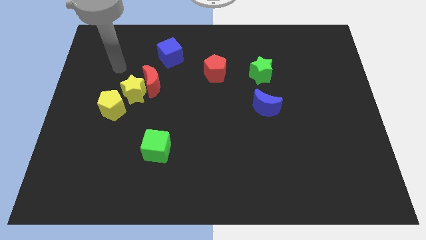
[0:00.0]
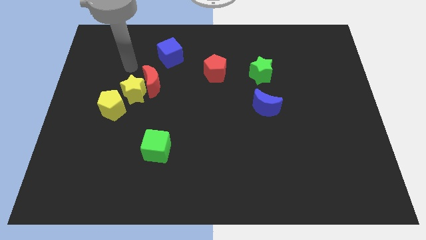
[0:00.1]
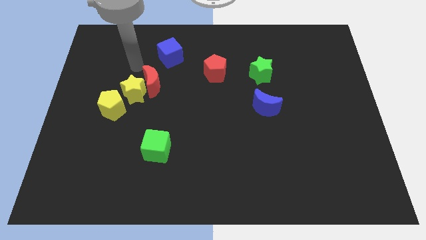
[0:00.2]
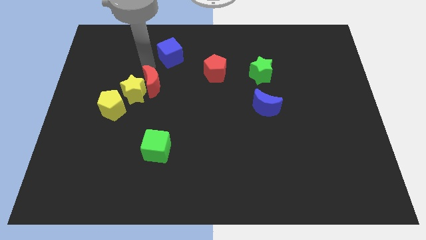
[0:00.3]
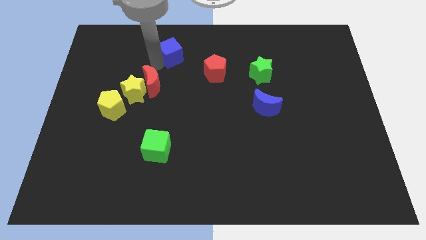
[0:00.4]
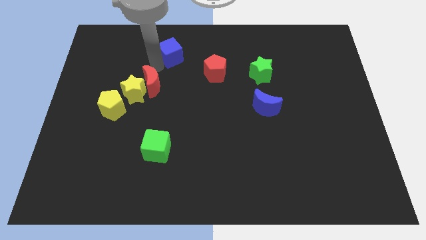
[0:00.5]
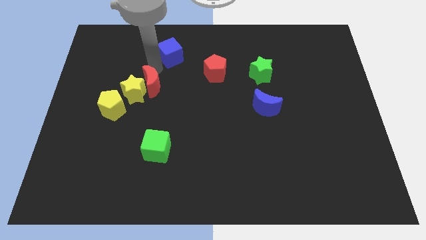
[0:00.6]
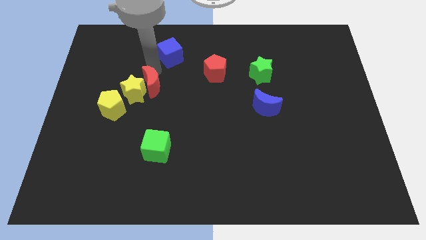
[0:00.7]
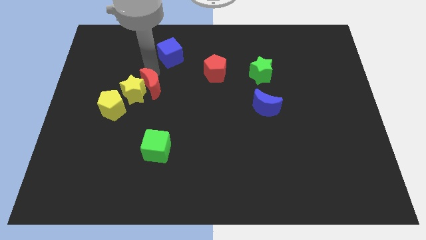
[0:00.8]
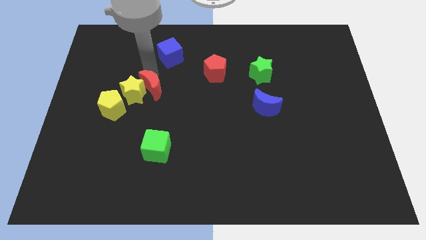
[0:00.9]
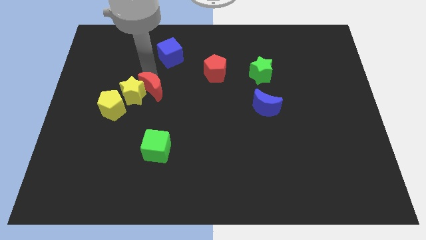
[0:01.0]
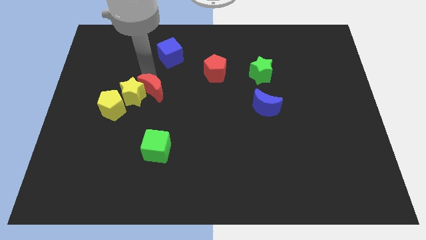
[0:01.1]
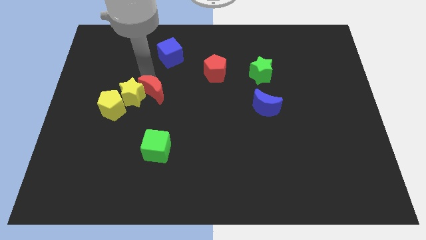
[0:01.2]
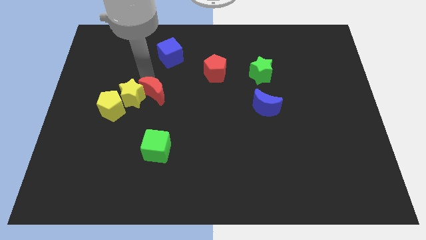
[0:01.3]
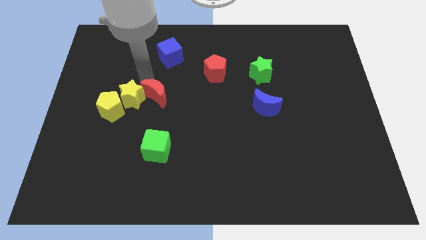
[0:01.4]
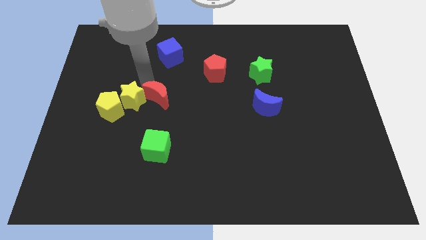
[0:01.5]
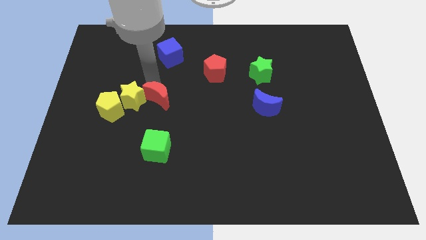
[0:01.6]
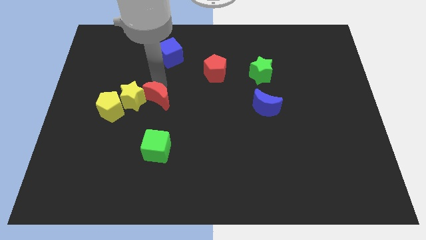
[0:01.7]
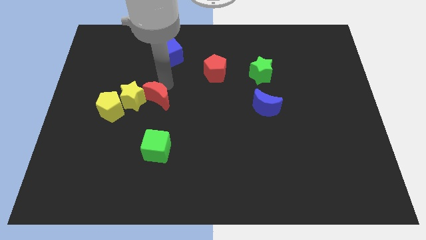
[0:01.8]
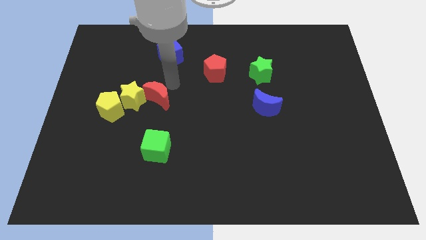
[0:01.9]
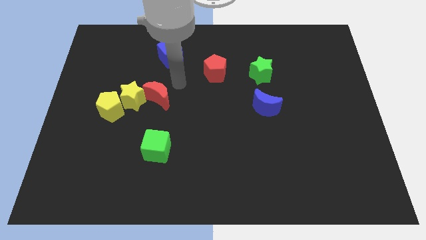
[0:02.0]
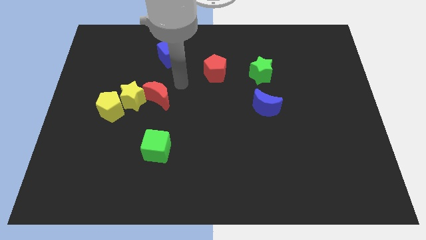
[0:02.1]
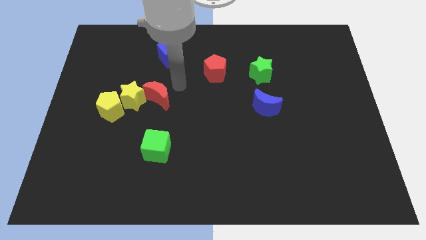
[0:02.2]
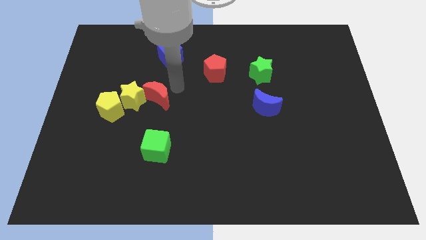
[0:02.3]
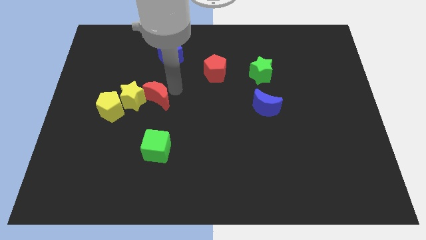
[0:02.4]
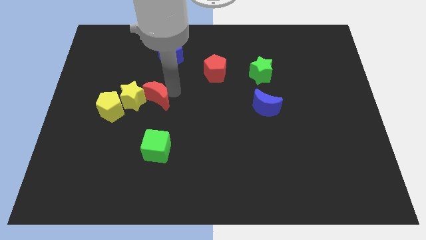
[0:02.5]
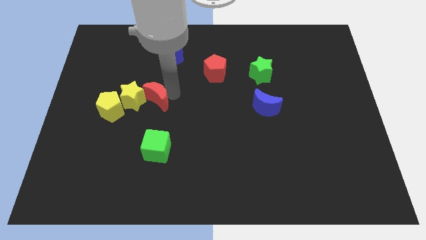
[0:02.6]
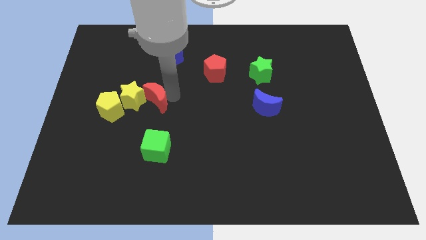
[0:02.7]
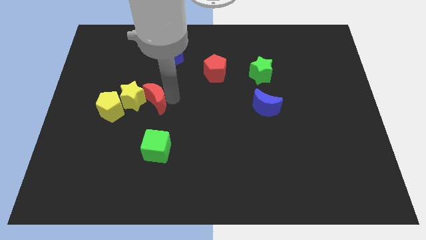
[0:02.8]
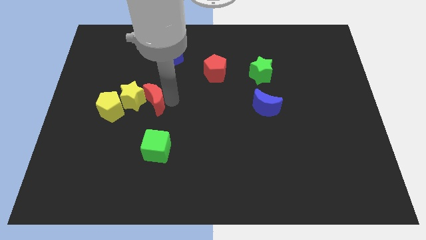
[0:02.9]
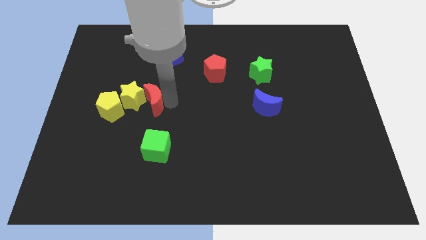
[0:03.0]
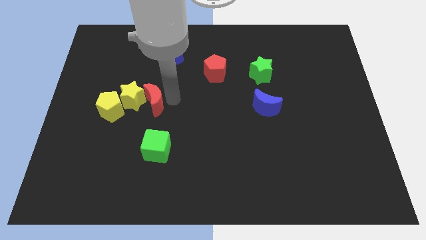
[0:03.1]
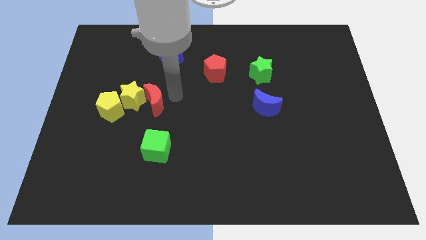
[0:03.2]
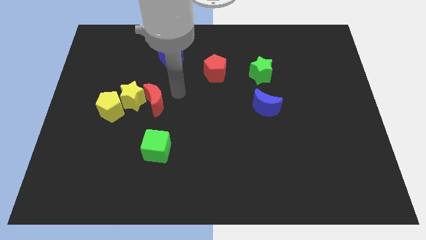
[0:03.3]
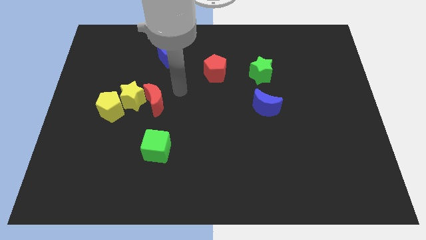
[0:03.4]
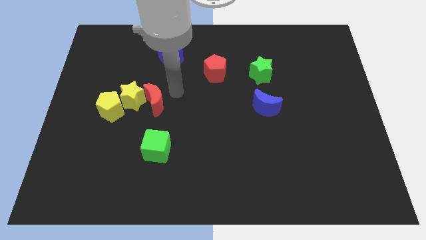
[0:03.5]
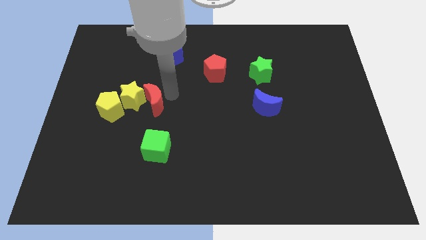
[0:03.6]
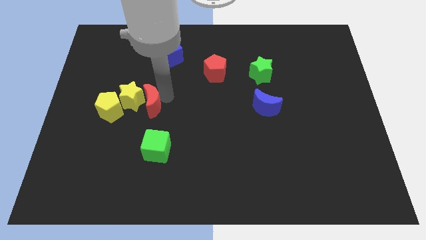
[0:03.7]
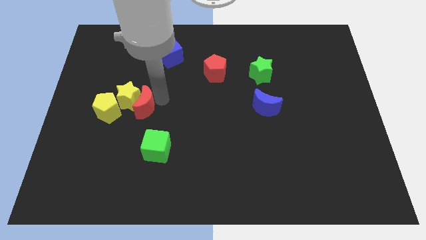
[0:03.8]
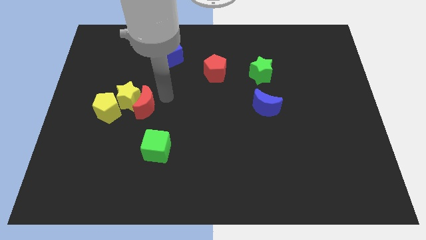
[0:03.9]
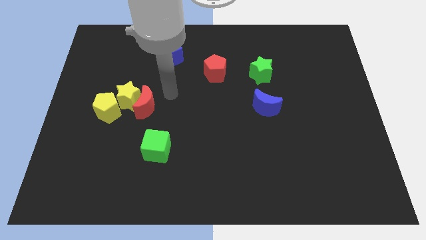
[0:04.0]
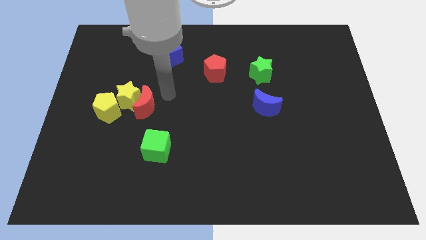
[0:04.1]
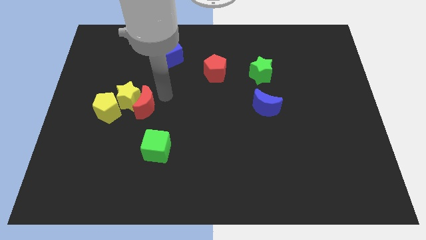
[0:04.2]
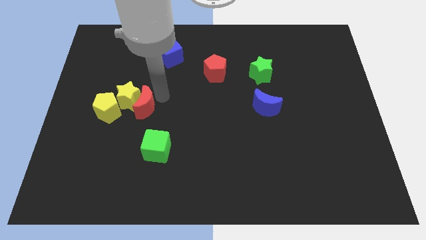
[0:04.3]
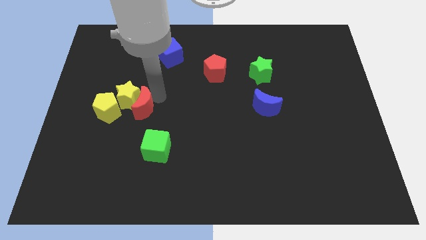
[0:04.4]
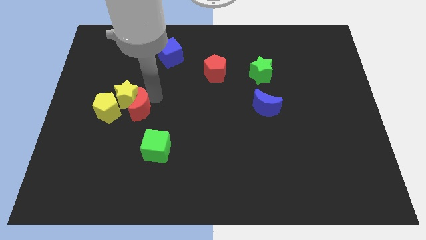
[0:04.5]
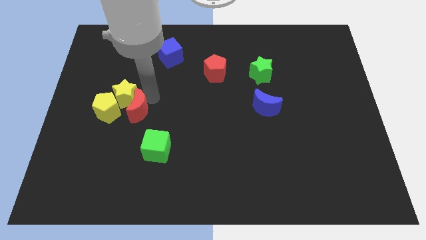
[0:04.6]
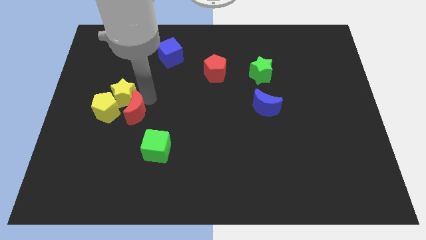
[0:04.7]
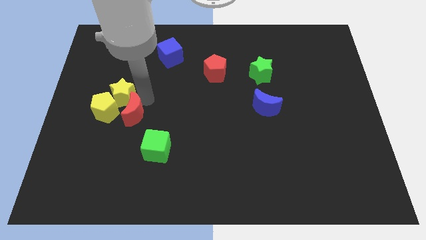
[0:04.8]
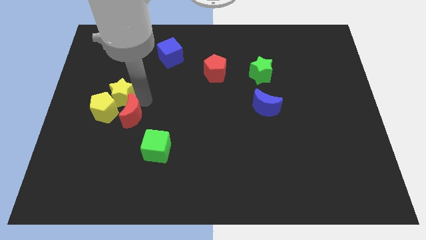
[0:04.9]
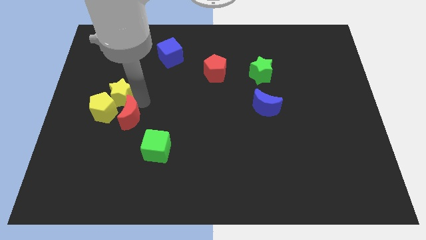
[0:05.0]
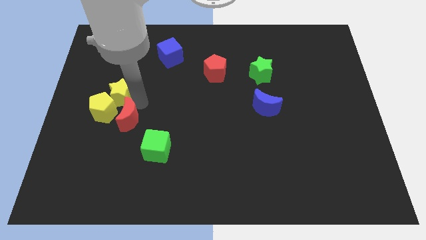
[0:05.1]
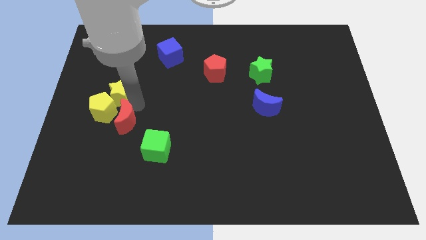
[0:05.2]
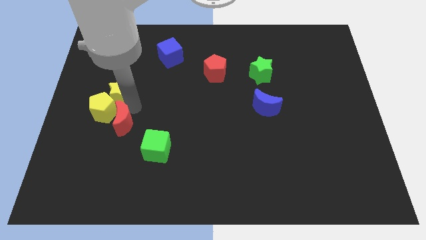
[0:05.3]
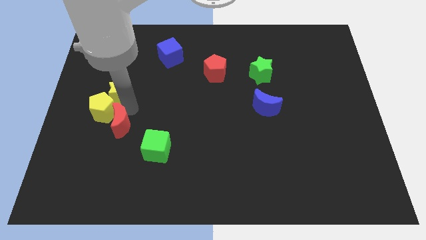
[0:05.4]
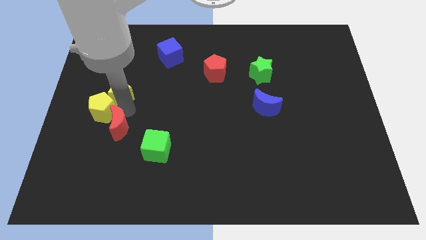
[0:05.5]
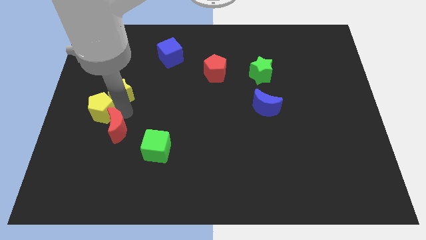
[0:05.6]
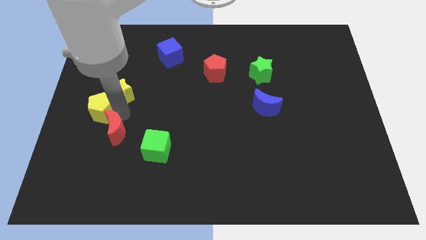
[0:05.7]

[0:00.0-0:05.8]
move the red moon to the left side of the green cube

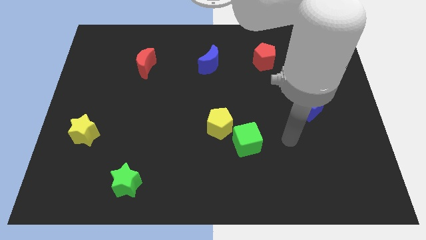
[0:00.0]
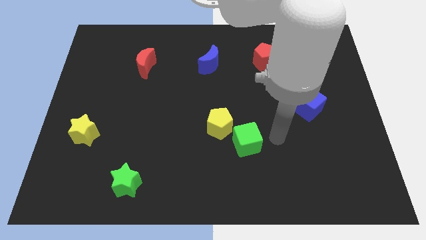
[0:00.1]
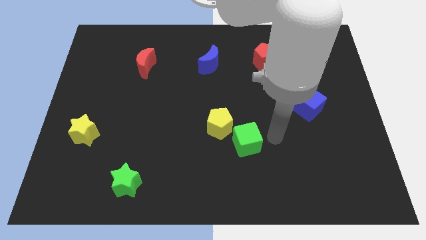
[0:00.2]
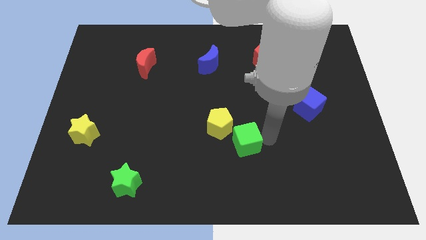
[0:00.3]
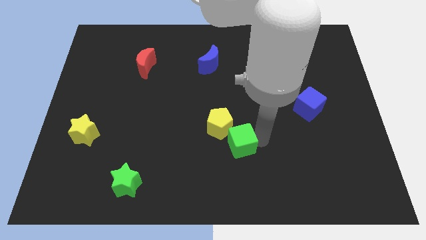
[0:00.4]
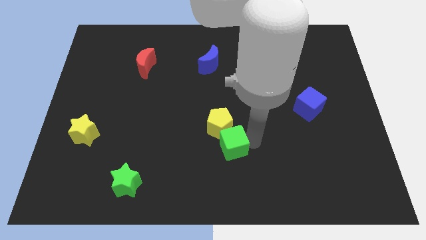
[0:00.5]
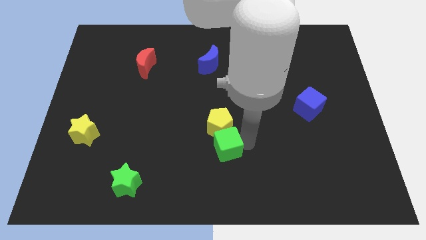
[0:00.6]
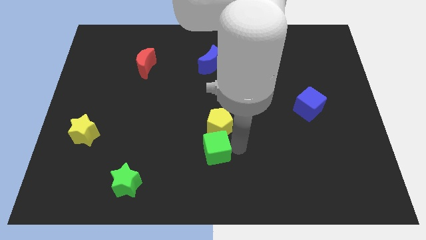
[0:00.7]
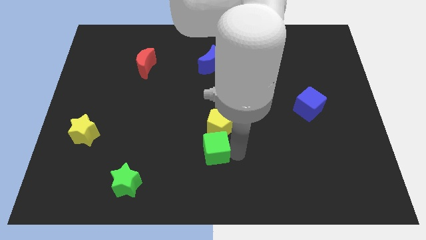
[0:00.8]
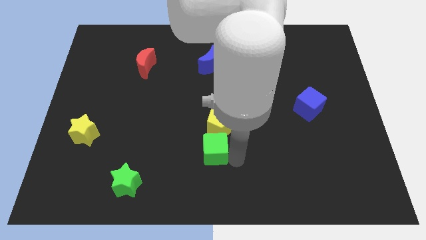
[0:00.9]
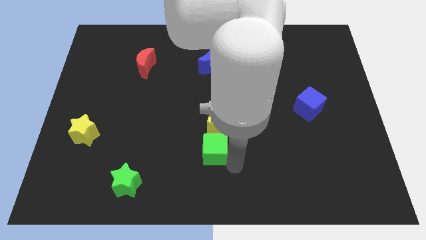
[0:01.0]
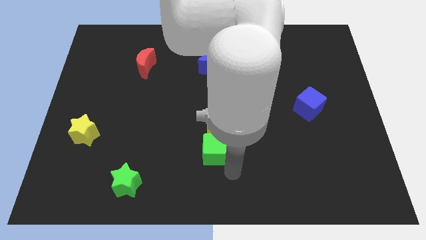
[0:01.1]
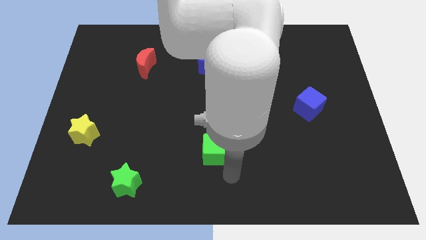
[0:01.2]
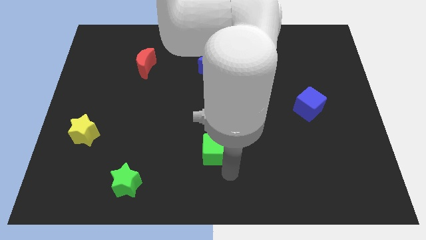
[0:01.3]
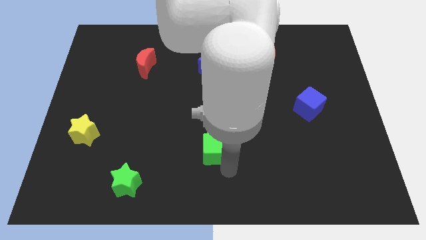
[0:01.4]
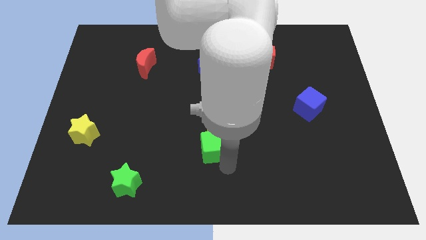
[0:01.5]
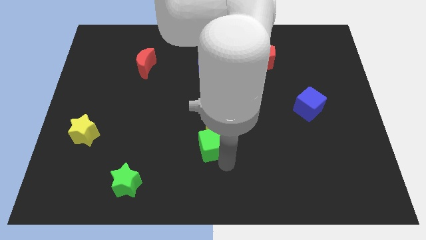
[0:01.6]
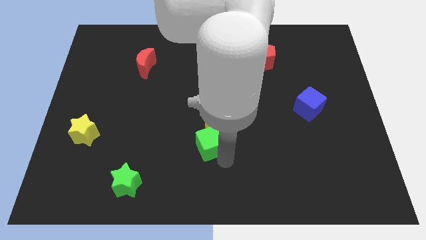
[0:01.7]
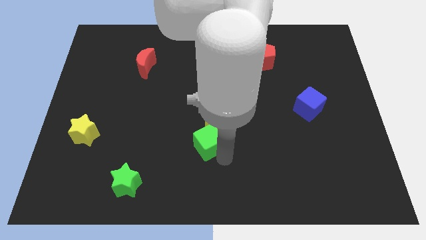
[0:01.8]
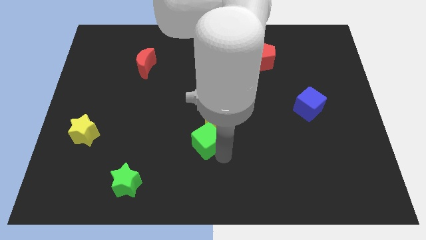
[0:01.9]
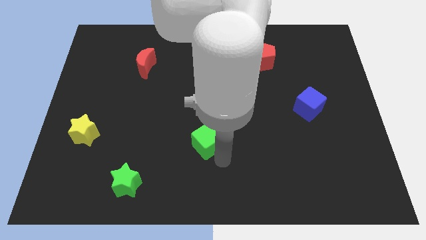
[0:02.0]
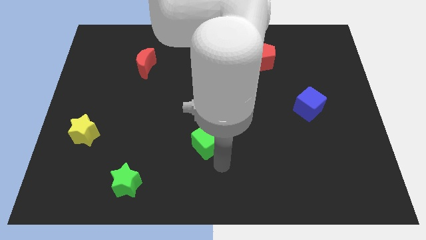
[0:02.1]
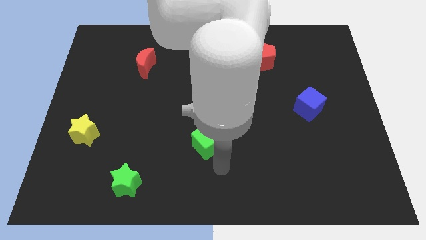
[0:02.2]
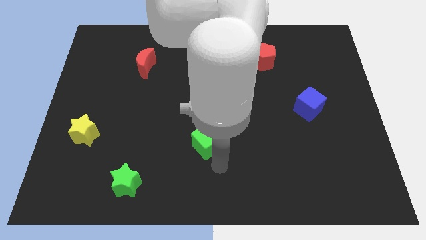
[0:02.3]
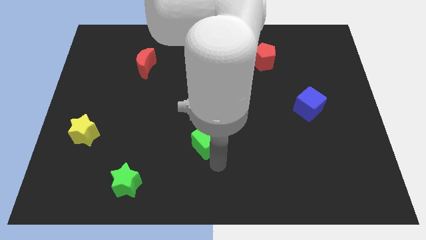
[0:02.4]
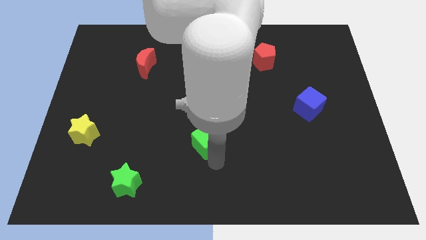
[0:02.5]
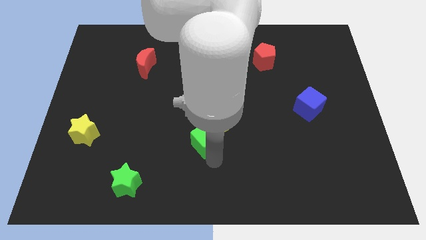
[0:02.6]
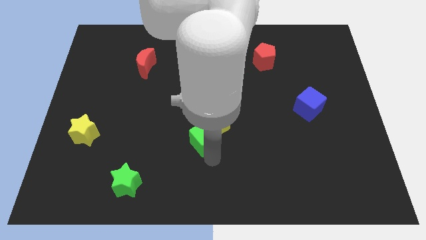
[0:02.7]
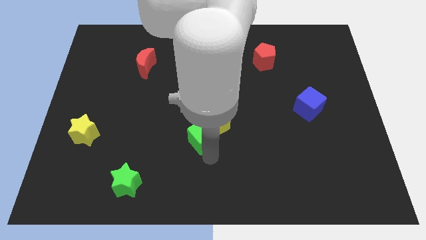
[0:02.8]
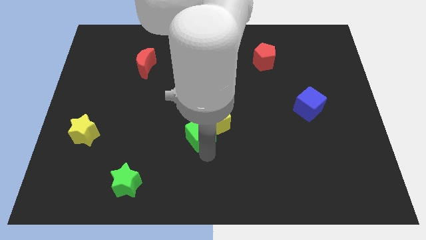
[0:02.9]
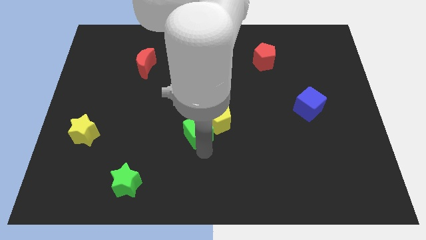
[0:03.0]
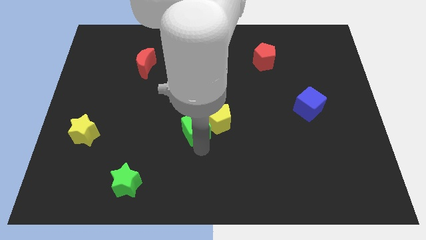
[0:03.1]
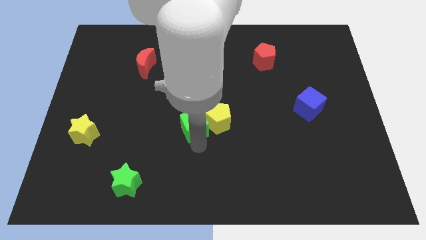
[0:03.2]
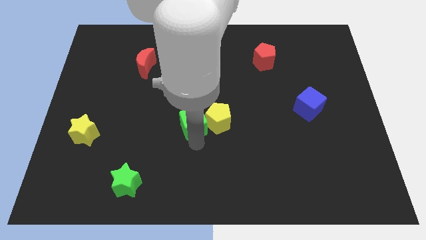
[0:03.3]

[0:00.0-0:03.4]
slide the green cube to the top left side of the yellow pentagon
